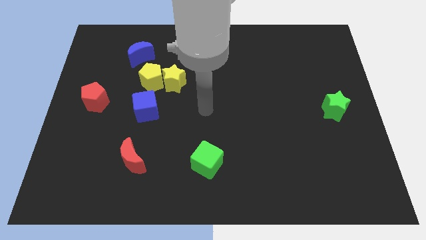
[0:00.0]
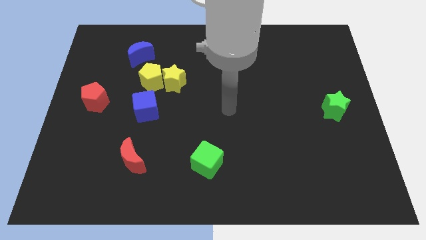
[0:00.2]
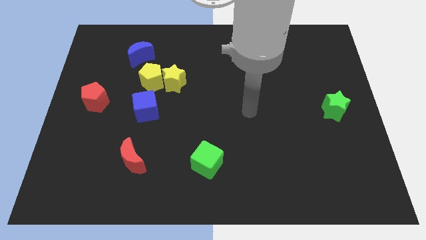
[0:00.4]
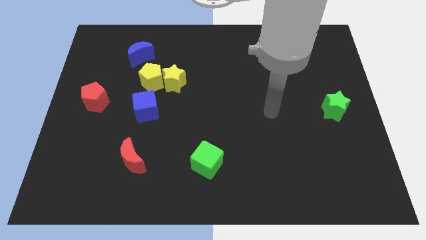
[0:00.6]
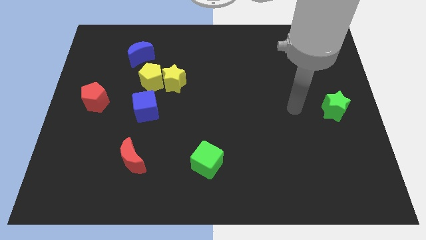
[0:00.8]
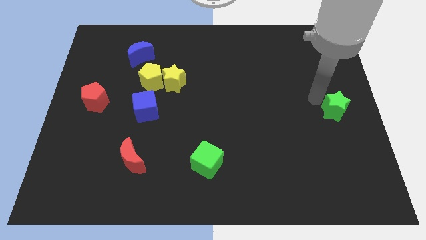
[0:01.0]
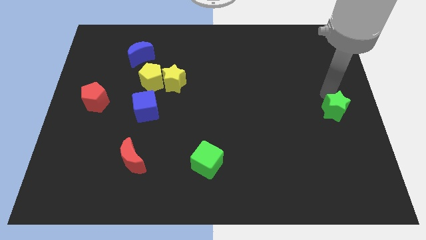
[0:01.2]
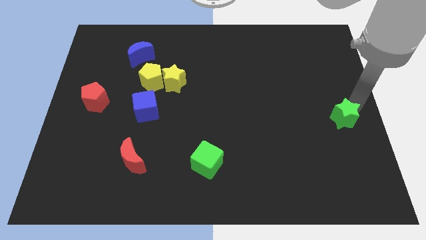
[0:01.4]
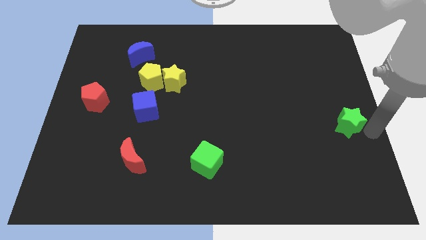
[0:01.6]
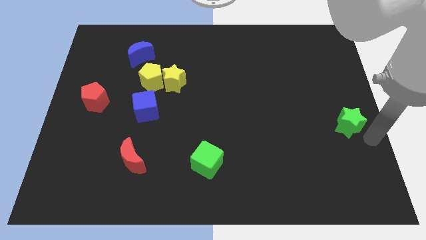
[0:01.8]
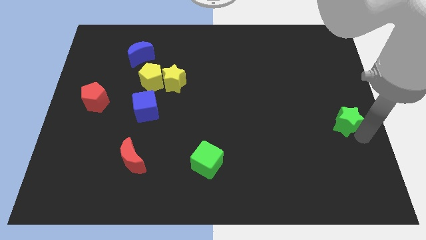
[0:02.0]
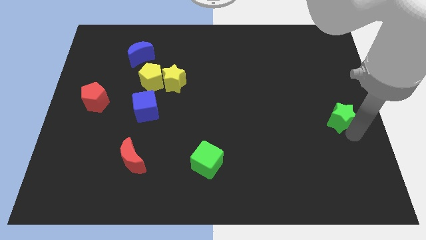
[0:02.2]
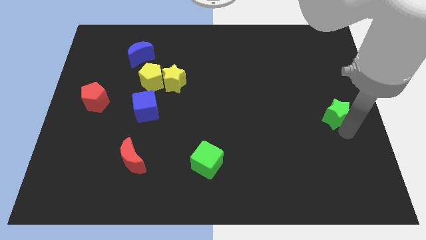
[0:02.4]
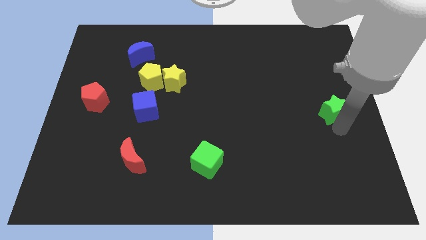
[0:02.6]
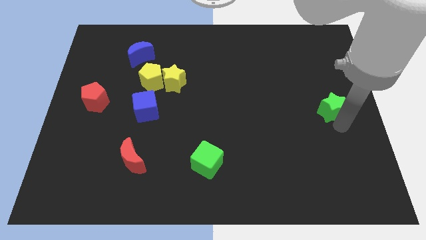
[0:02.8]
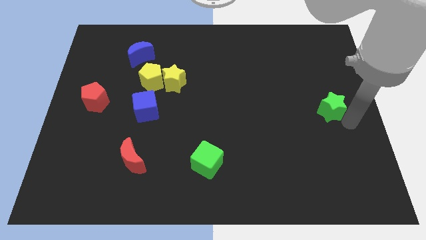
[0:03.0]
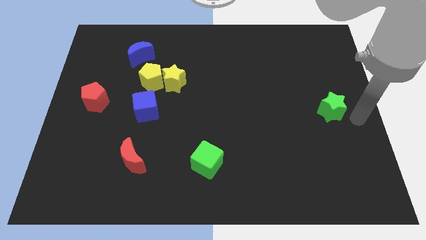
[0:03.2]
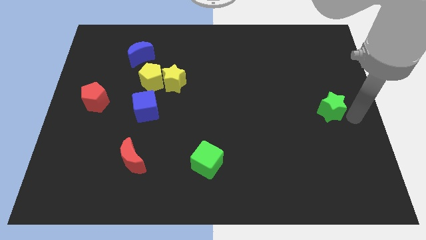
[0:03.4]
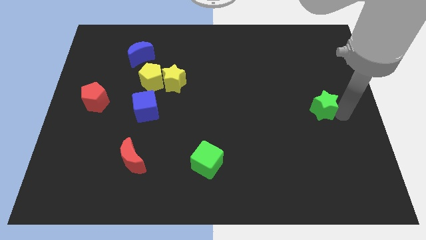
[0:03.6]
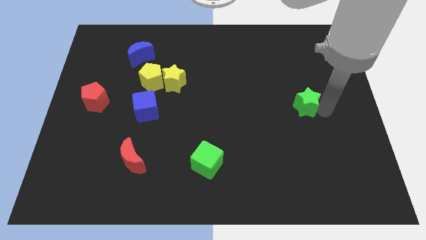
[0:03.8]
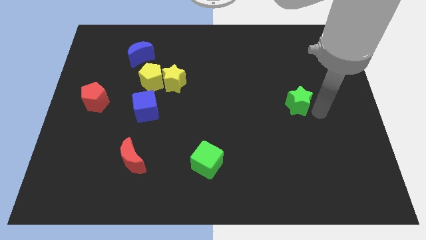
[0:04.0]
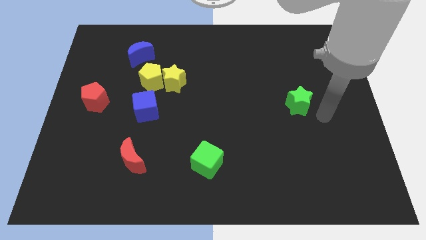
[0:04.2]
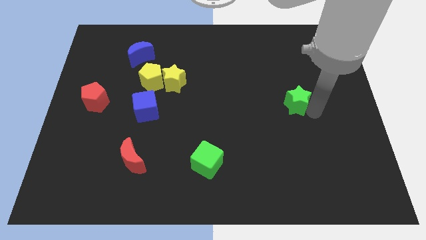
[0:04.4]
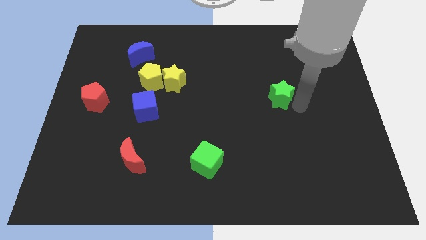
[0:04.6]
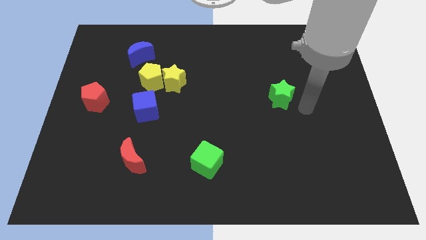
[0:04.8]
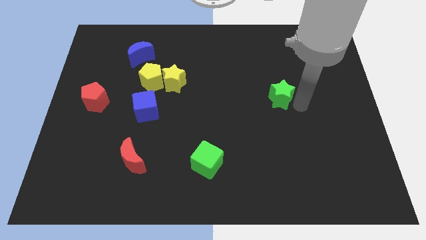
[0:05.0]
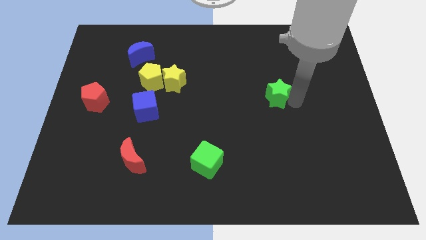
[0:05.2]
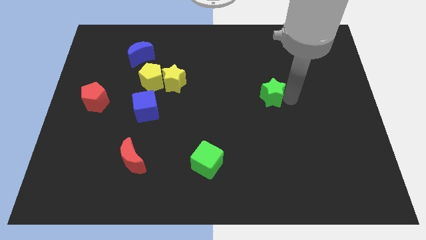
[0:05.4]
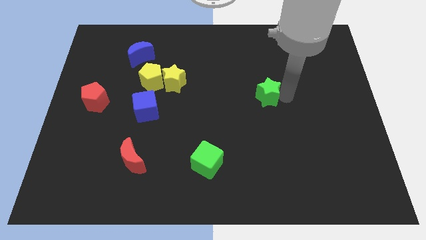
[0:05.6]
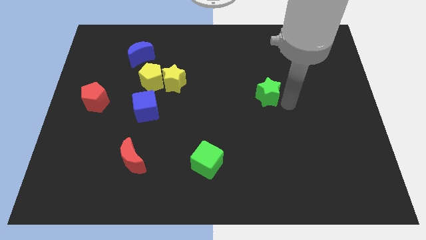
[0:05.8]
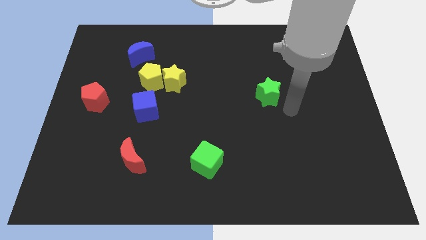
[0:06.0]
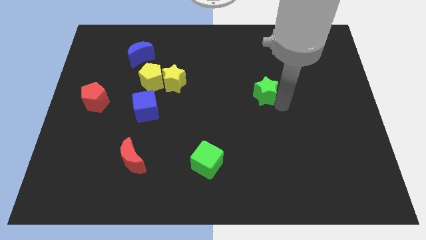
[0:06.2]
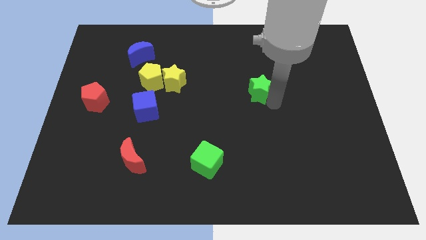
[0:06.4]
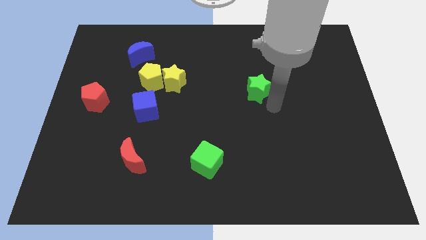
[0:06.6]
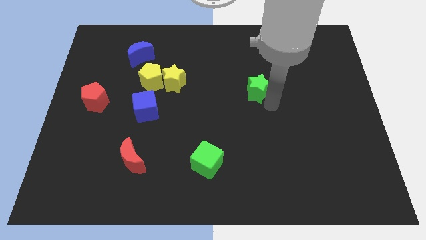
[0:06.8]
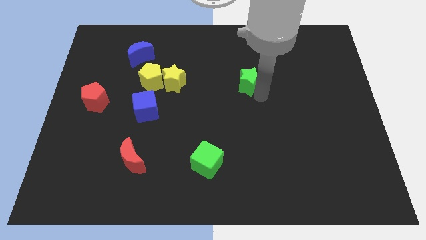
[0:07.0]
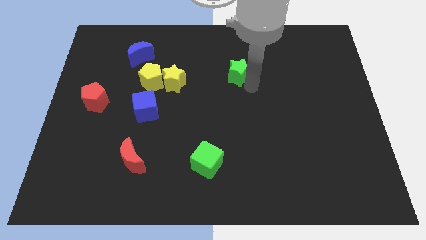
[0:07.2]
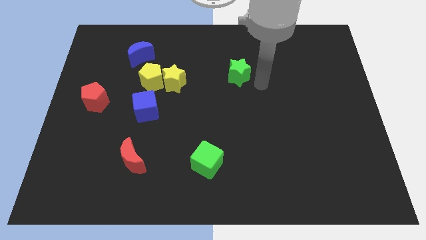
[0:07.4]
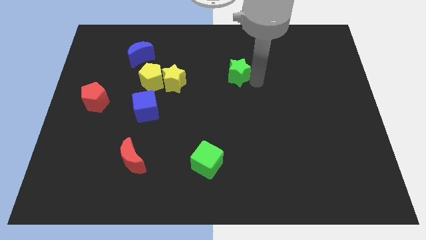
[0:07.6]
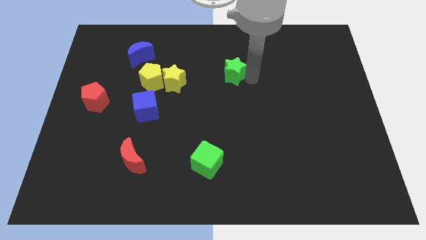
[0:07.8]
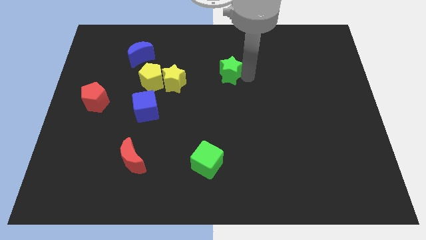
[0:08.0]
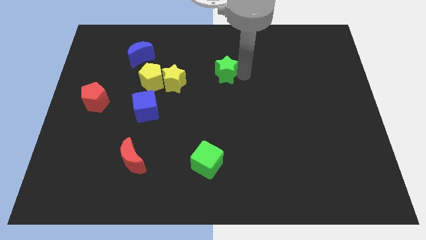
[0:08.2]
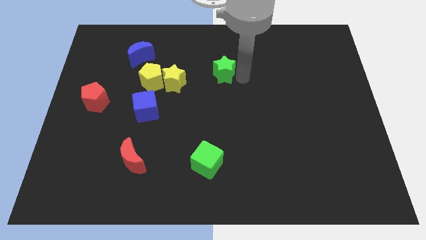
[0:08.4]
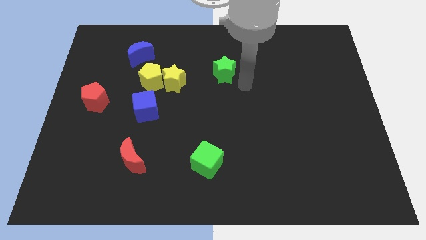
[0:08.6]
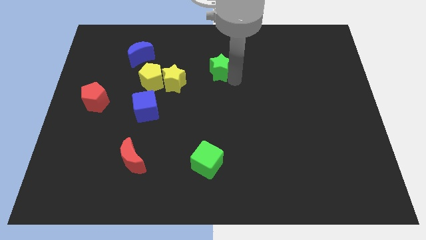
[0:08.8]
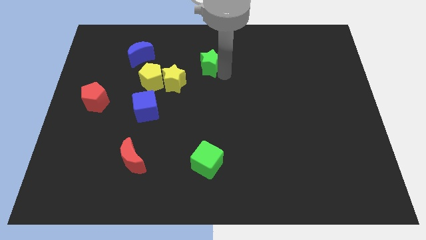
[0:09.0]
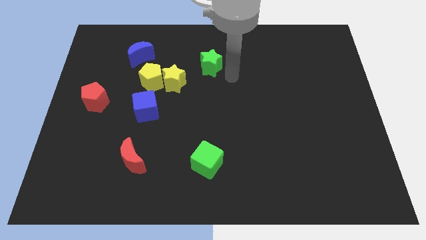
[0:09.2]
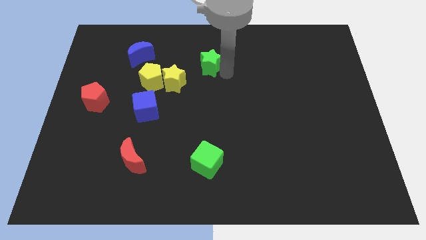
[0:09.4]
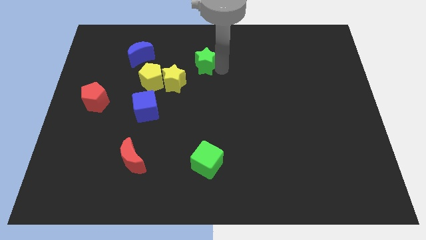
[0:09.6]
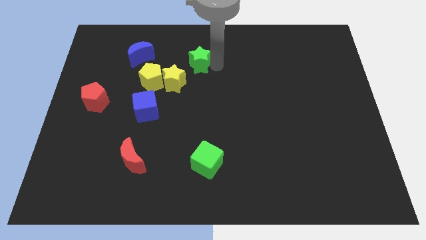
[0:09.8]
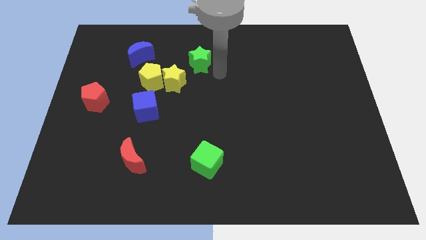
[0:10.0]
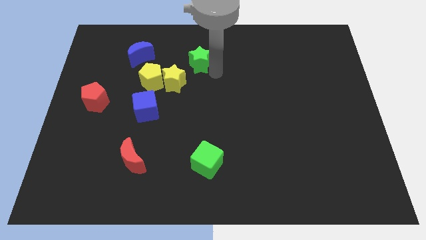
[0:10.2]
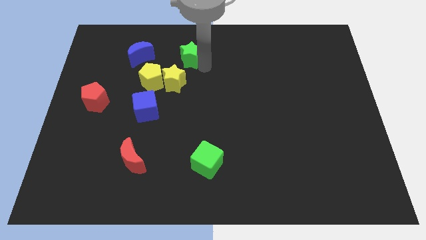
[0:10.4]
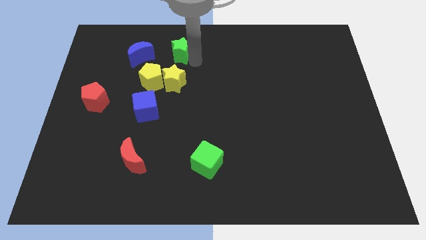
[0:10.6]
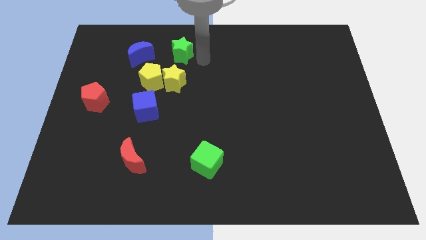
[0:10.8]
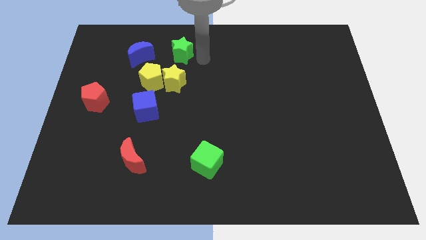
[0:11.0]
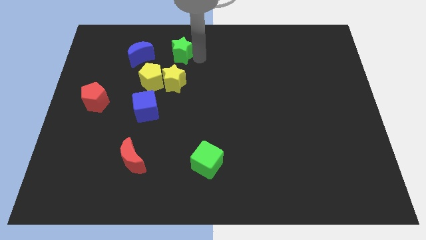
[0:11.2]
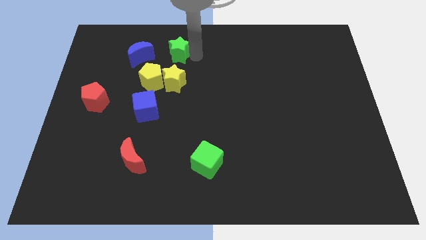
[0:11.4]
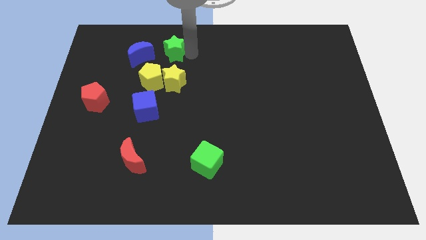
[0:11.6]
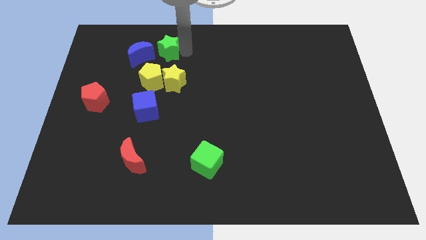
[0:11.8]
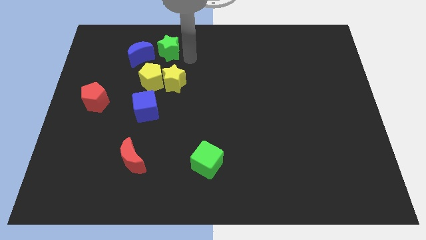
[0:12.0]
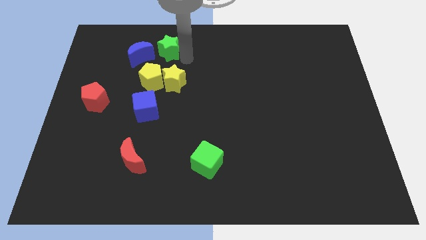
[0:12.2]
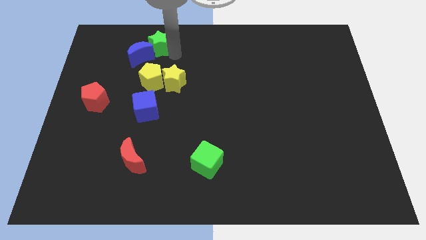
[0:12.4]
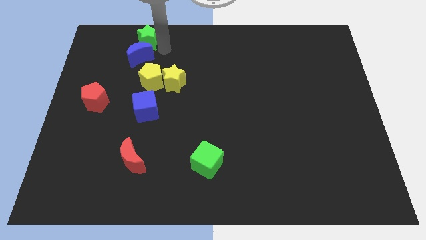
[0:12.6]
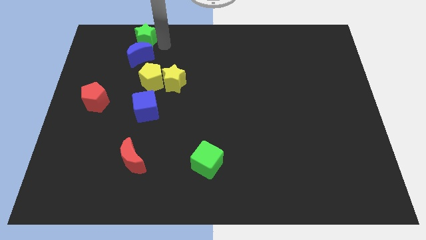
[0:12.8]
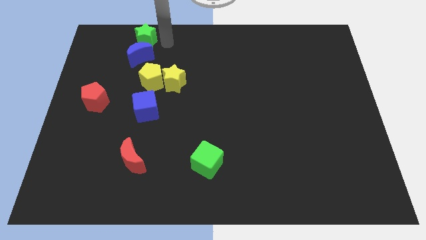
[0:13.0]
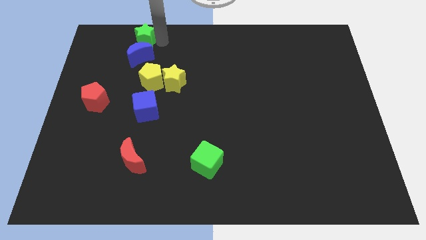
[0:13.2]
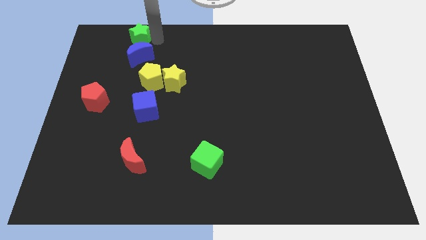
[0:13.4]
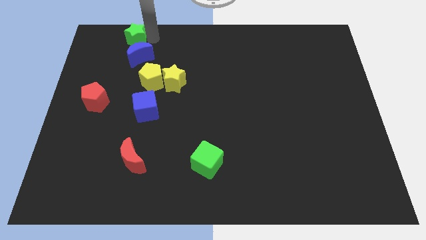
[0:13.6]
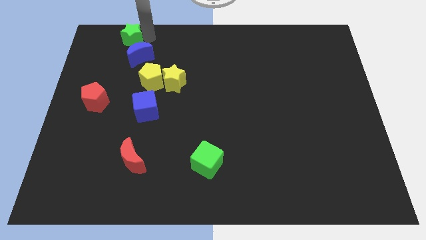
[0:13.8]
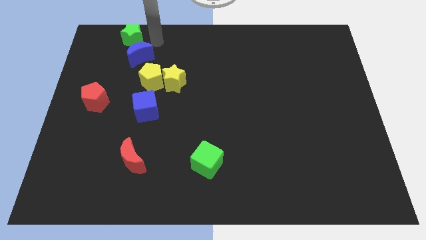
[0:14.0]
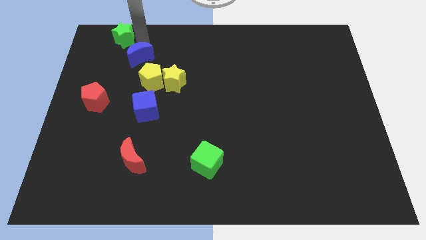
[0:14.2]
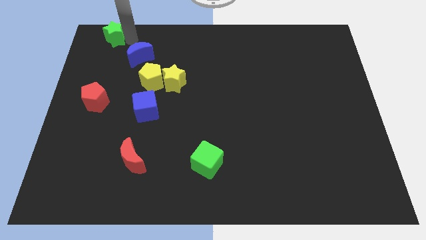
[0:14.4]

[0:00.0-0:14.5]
slide the green star to the upper left corner

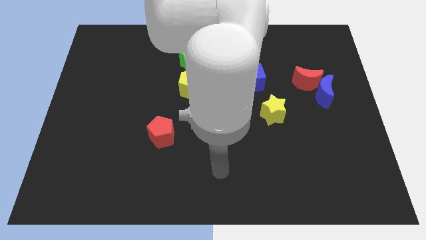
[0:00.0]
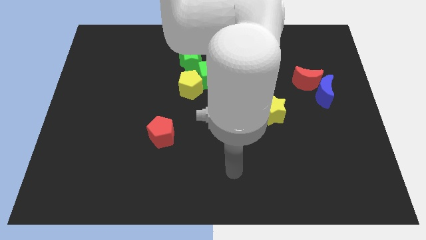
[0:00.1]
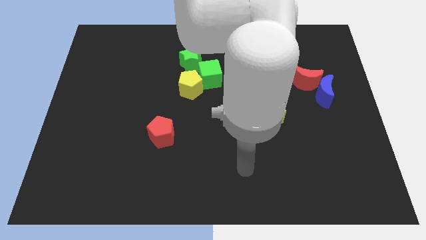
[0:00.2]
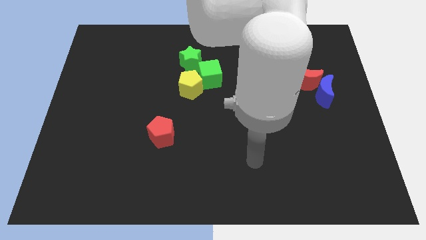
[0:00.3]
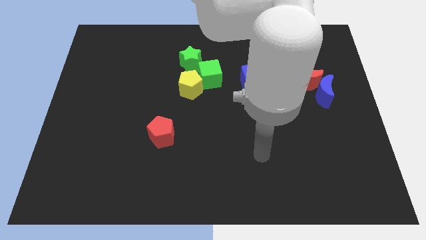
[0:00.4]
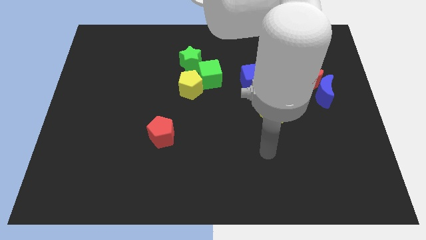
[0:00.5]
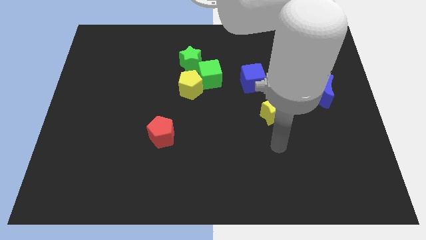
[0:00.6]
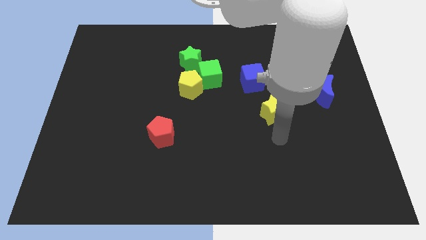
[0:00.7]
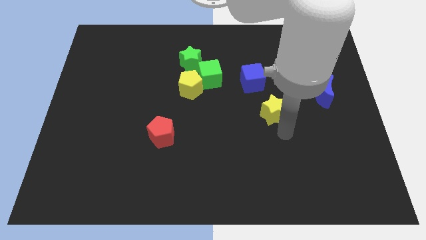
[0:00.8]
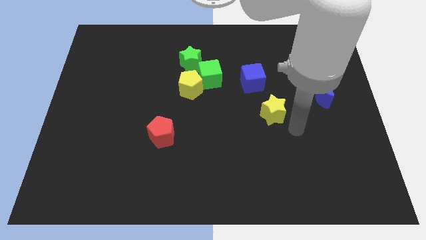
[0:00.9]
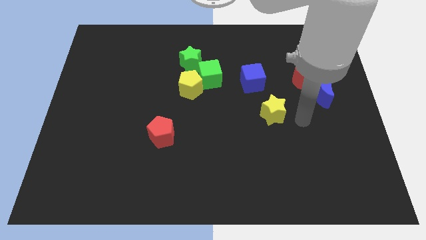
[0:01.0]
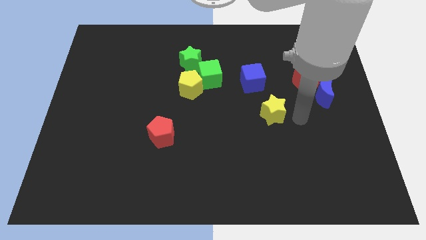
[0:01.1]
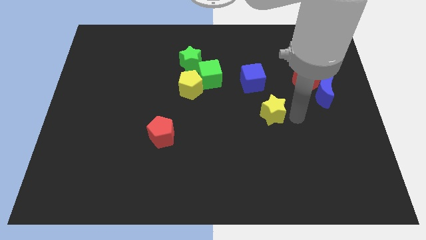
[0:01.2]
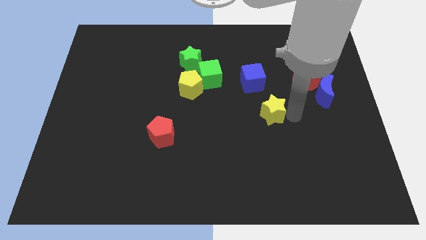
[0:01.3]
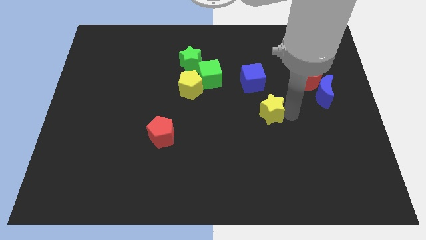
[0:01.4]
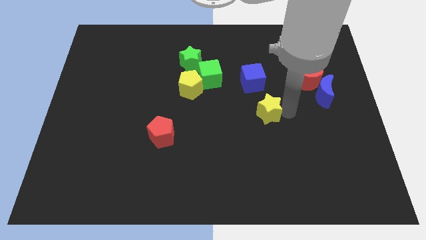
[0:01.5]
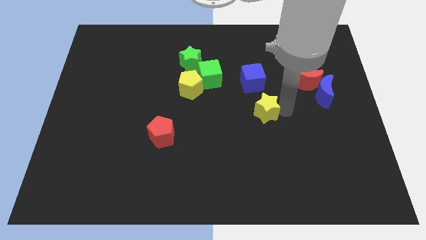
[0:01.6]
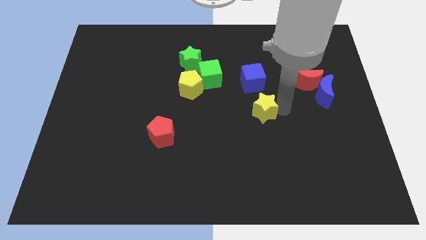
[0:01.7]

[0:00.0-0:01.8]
slide the yellow star to the middle of the board
